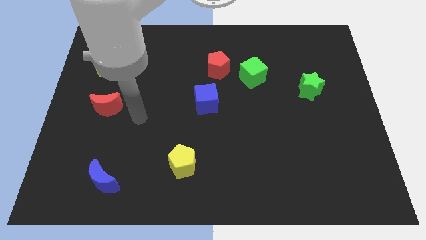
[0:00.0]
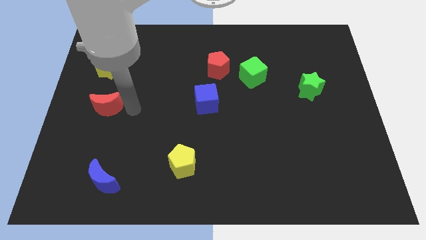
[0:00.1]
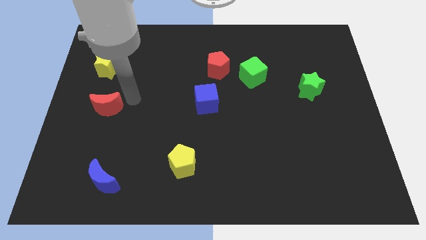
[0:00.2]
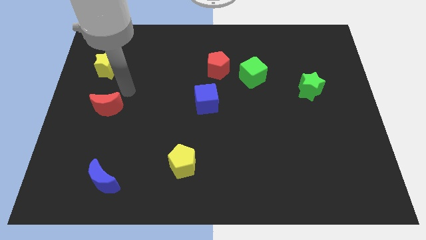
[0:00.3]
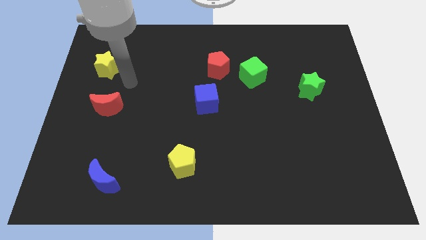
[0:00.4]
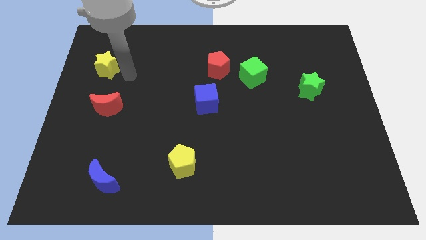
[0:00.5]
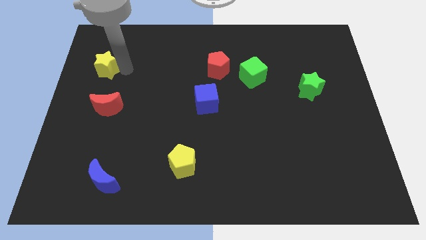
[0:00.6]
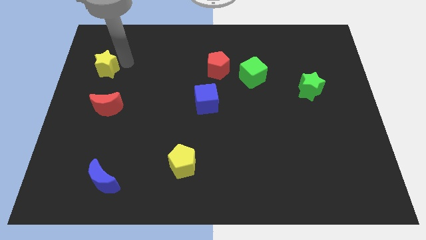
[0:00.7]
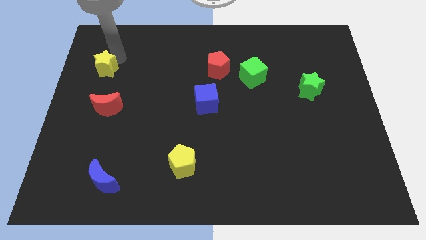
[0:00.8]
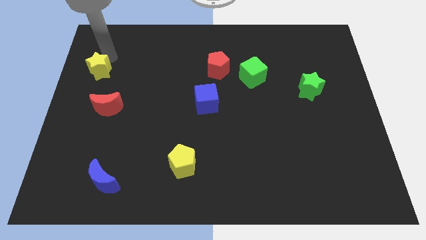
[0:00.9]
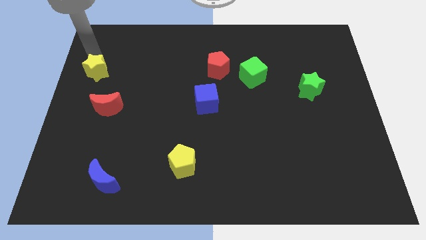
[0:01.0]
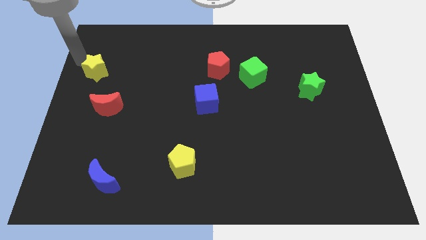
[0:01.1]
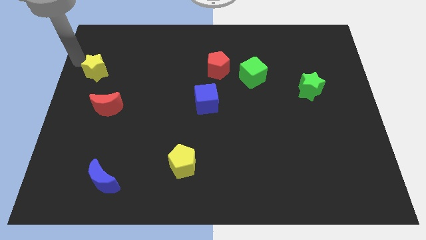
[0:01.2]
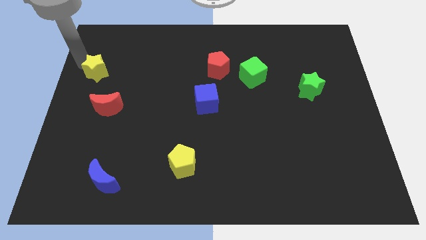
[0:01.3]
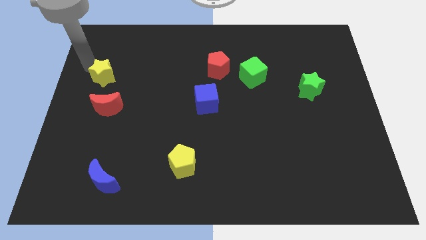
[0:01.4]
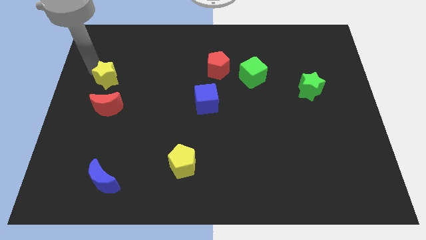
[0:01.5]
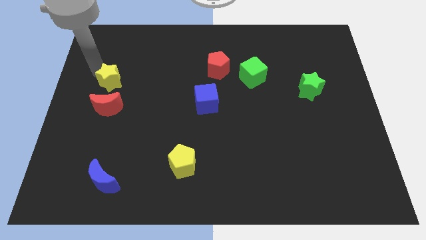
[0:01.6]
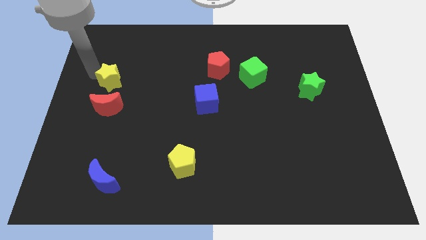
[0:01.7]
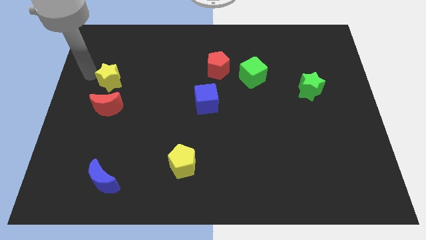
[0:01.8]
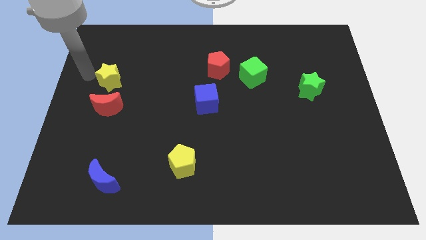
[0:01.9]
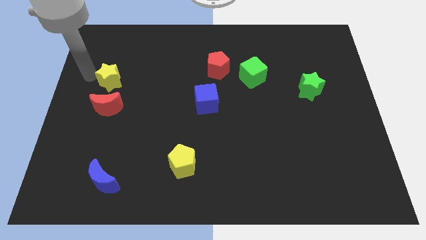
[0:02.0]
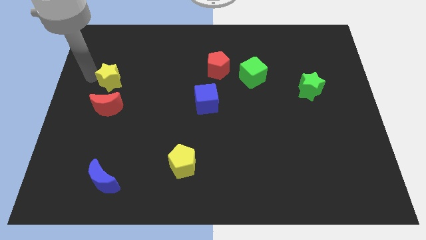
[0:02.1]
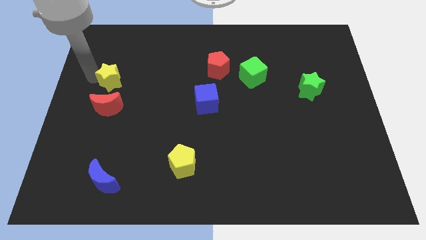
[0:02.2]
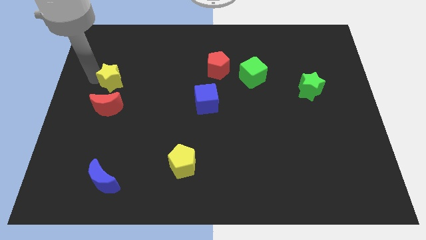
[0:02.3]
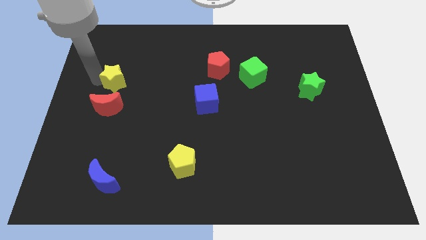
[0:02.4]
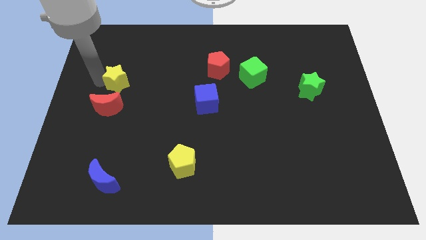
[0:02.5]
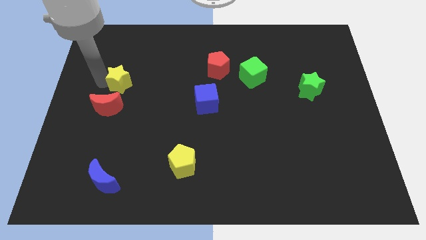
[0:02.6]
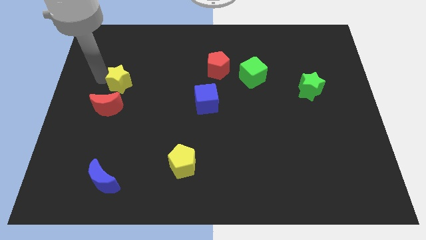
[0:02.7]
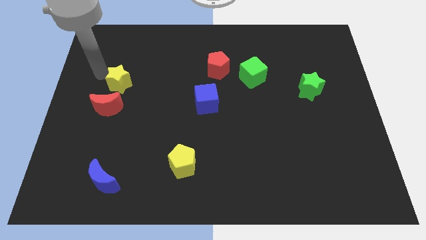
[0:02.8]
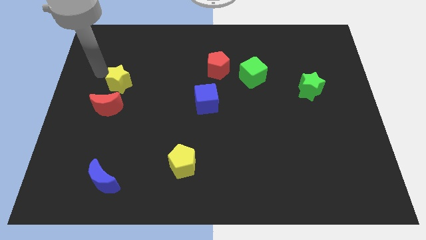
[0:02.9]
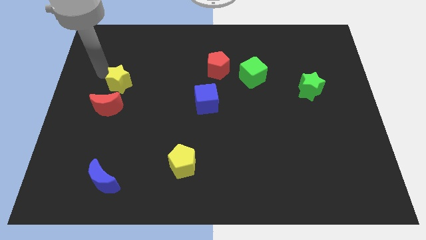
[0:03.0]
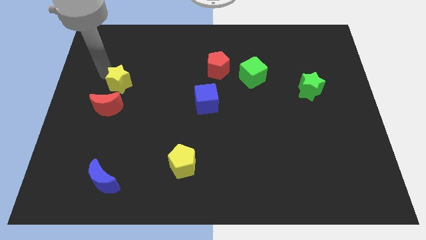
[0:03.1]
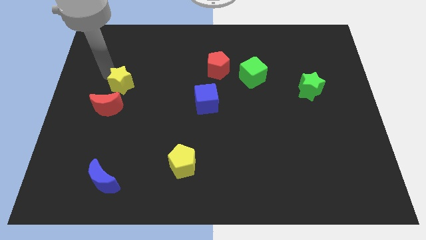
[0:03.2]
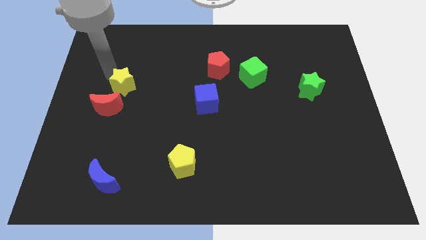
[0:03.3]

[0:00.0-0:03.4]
push the yellow star down and to the right diagonally somewhat

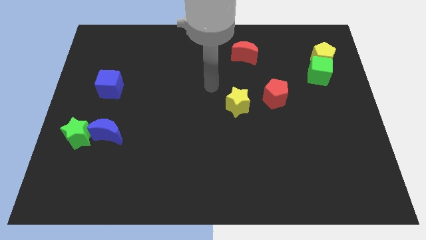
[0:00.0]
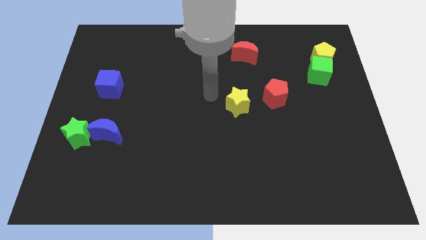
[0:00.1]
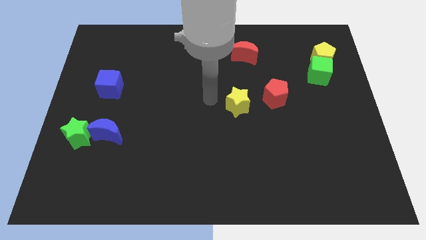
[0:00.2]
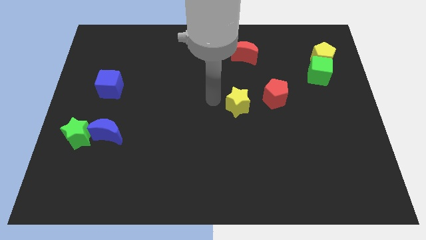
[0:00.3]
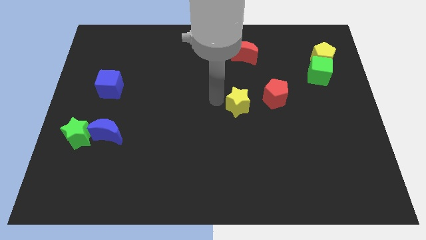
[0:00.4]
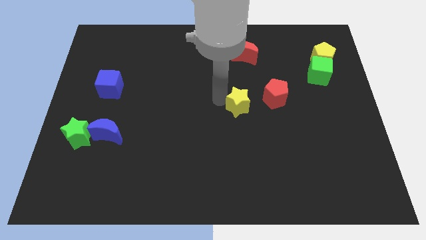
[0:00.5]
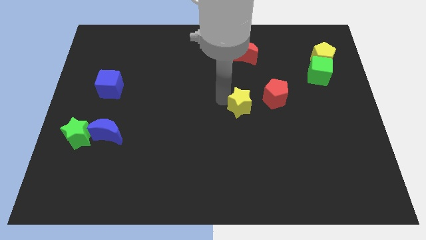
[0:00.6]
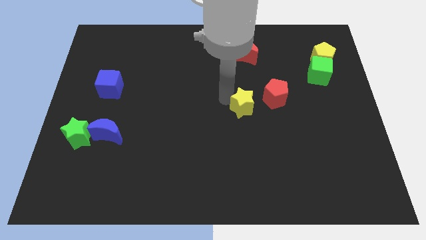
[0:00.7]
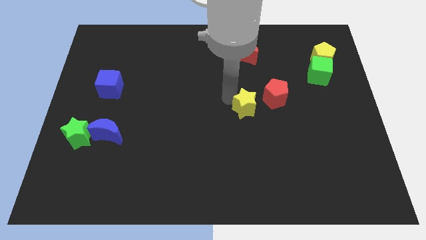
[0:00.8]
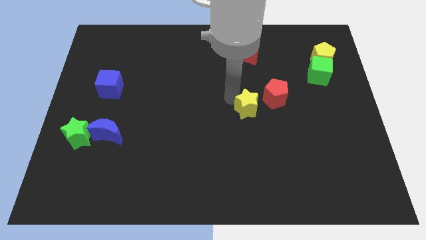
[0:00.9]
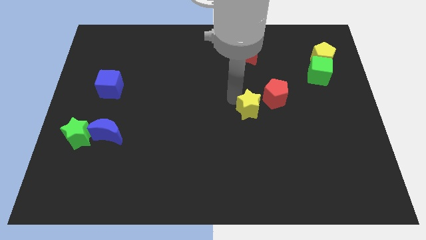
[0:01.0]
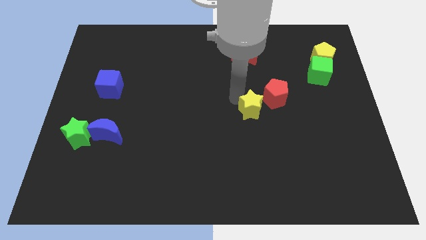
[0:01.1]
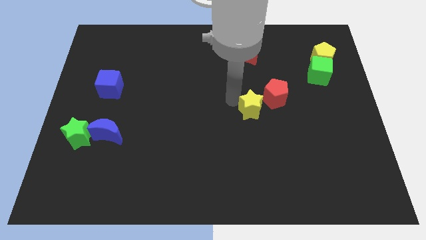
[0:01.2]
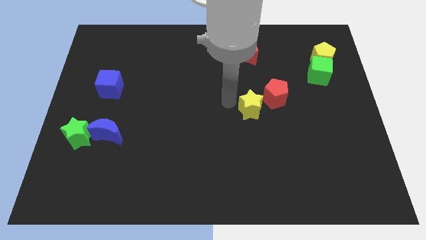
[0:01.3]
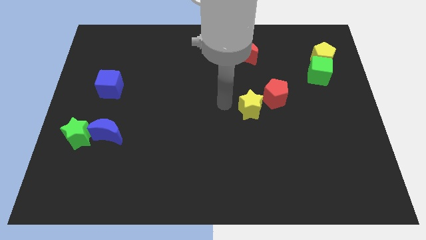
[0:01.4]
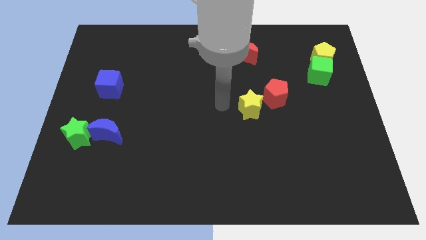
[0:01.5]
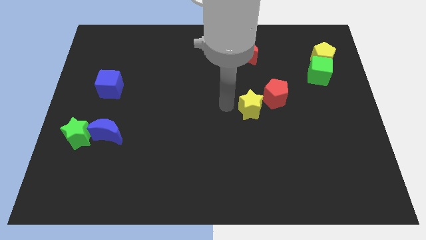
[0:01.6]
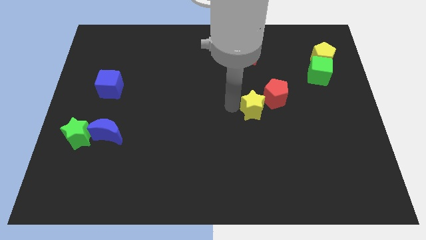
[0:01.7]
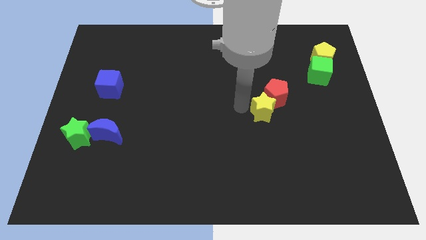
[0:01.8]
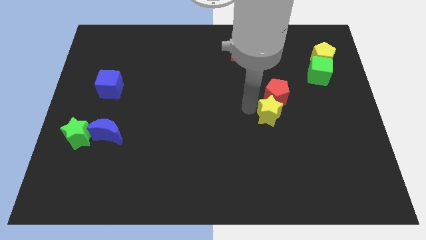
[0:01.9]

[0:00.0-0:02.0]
slightly move the yellow star right

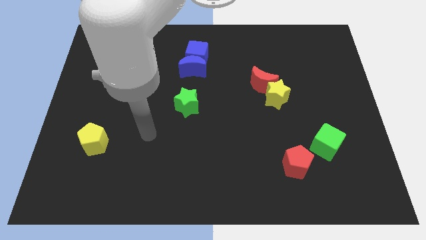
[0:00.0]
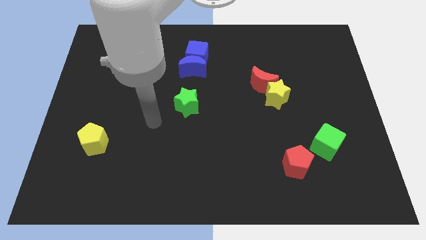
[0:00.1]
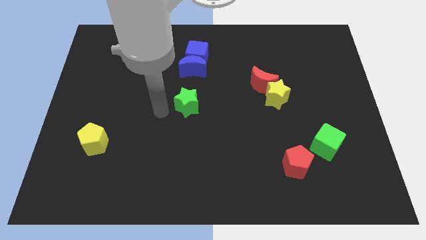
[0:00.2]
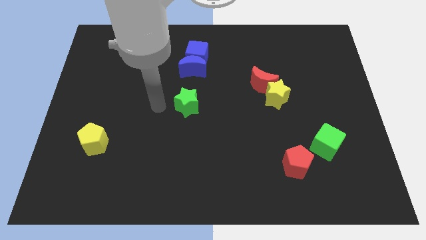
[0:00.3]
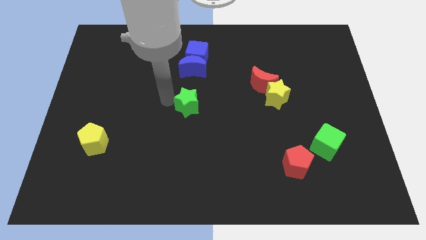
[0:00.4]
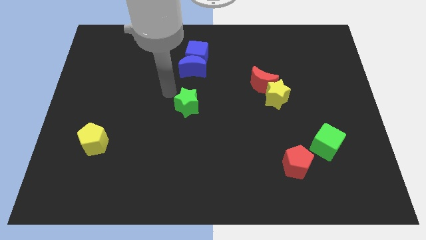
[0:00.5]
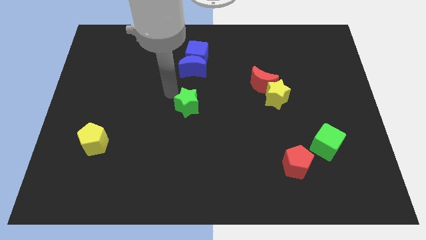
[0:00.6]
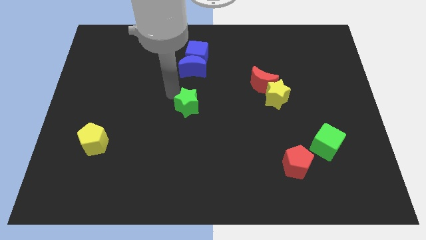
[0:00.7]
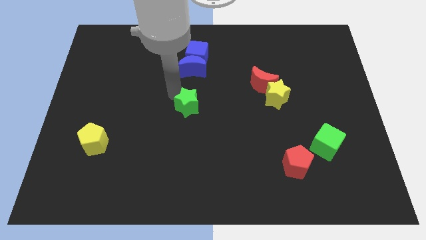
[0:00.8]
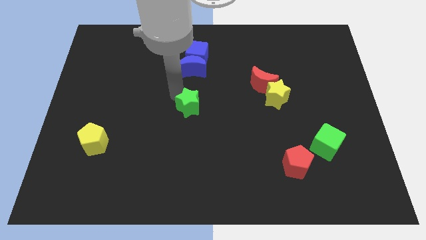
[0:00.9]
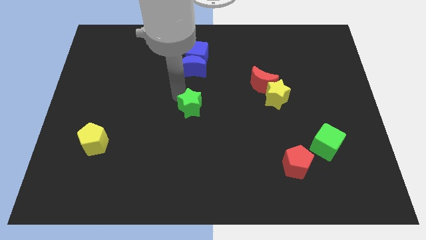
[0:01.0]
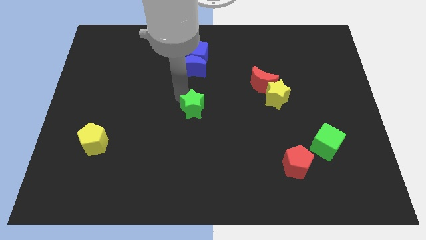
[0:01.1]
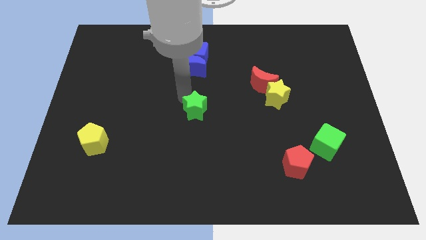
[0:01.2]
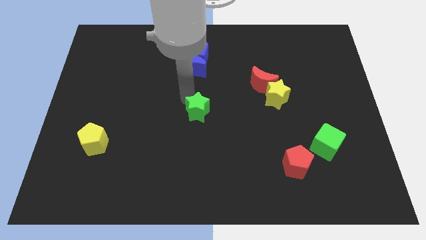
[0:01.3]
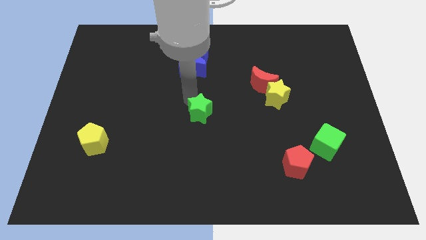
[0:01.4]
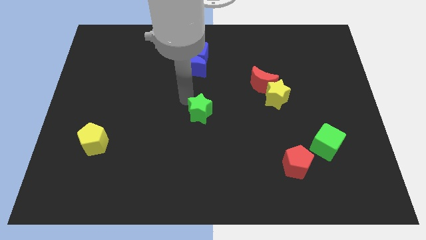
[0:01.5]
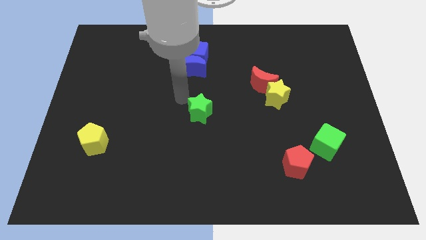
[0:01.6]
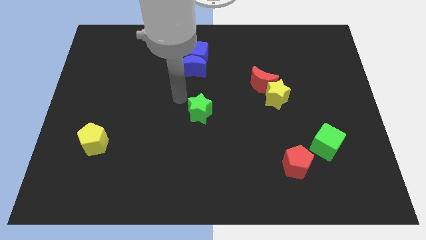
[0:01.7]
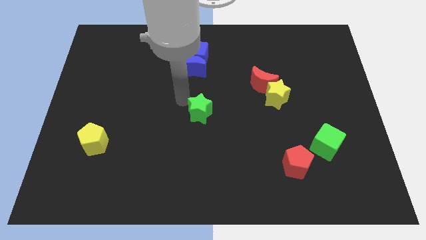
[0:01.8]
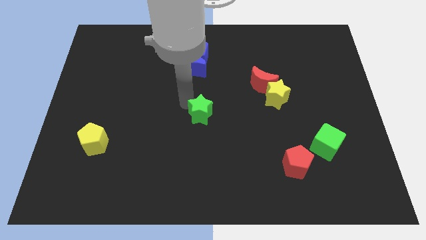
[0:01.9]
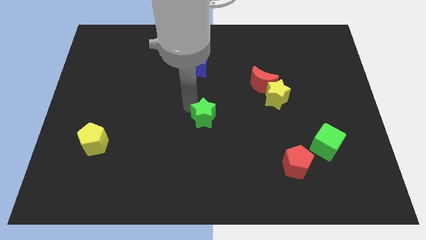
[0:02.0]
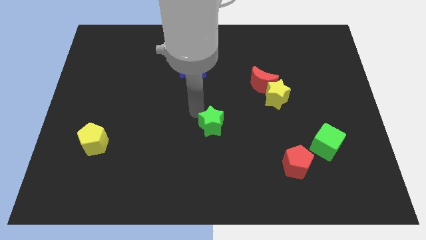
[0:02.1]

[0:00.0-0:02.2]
slightly move the green star down and then to the right

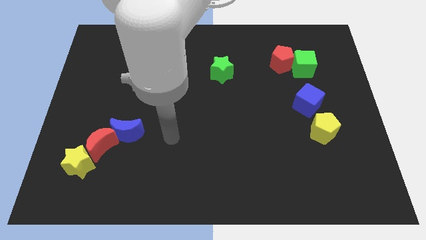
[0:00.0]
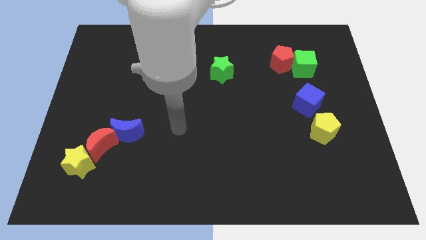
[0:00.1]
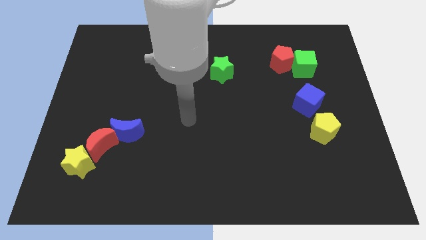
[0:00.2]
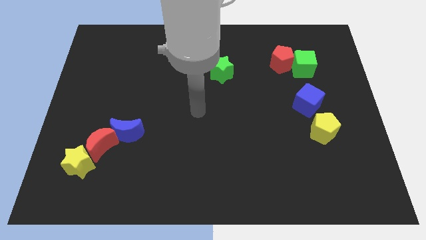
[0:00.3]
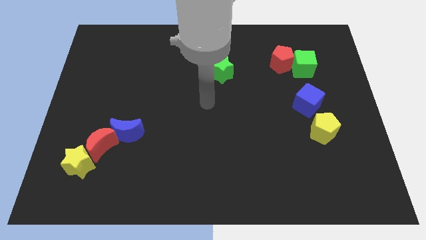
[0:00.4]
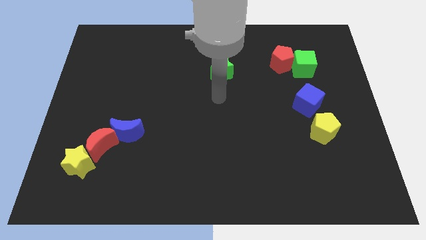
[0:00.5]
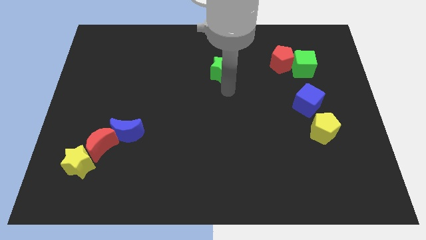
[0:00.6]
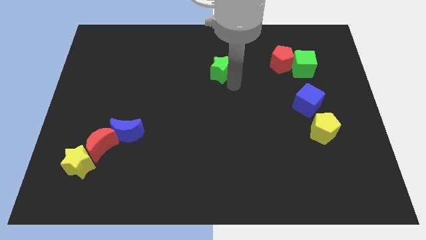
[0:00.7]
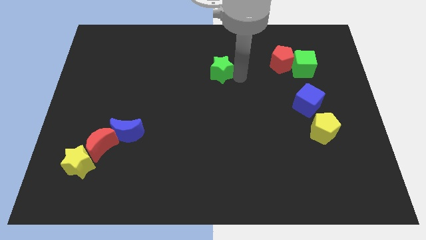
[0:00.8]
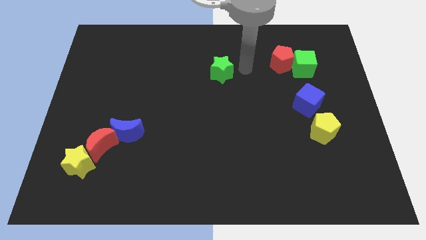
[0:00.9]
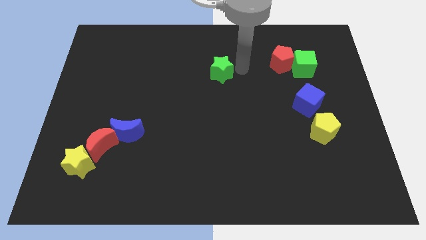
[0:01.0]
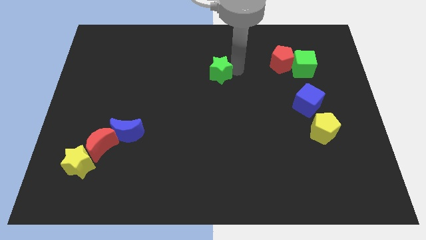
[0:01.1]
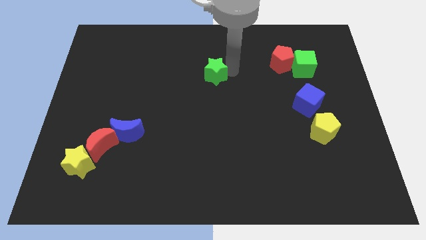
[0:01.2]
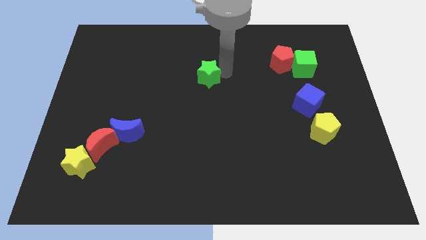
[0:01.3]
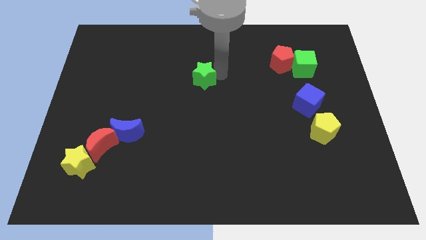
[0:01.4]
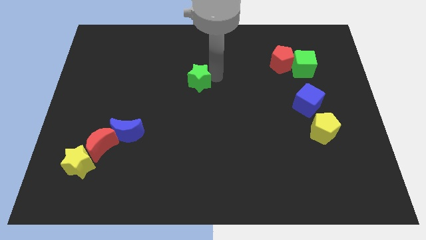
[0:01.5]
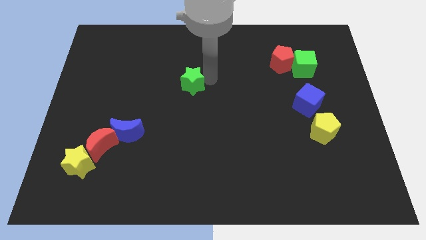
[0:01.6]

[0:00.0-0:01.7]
slide the green star slightly to the left
